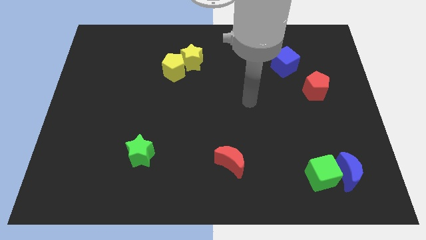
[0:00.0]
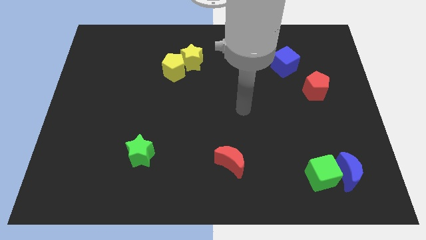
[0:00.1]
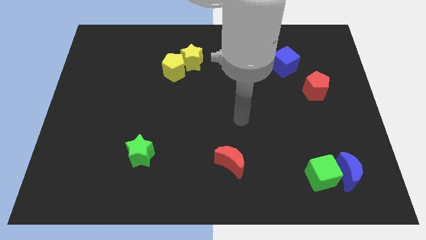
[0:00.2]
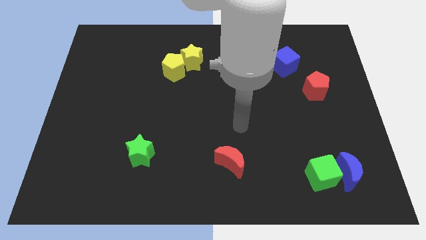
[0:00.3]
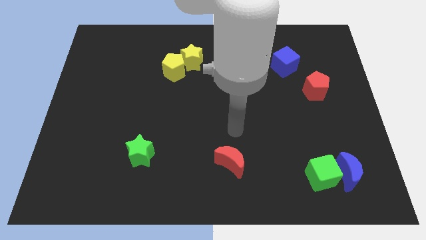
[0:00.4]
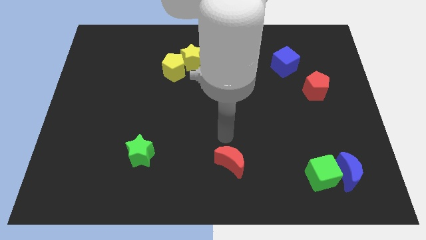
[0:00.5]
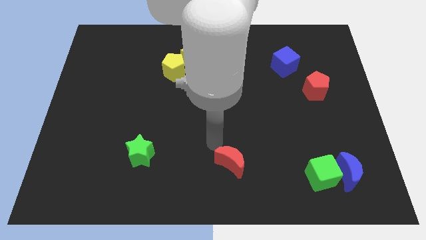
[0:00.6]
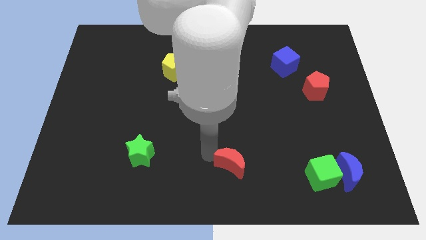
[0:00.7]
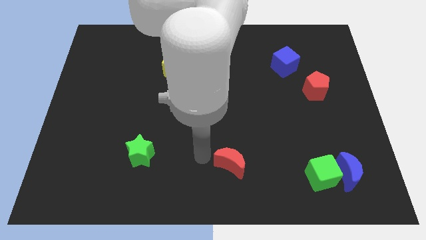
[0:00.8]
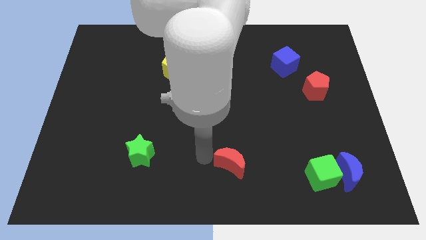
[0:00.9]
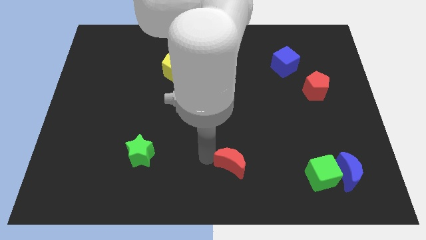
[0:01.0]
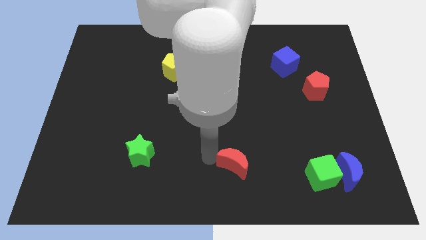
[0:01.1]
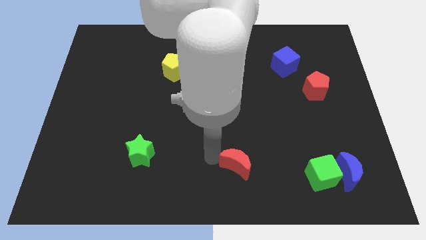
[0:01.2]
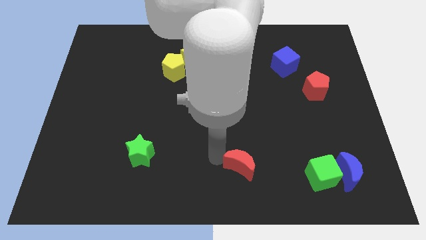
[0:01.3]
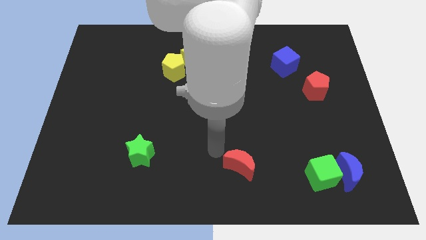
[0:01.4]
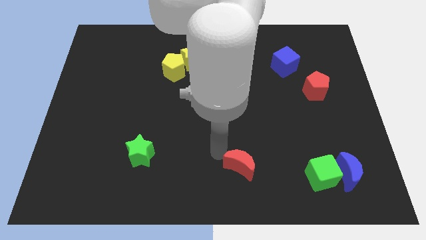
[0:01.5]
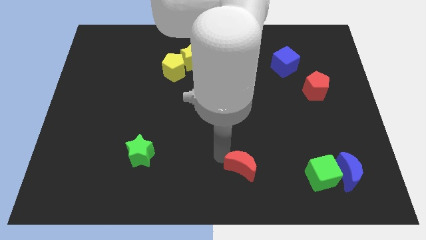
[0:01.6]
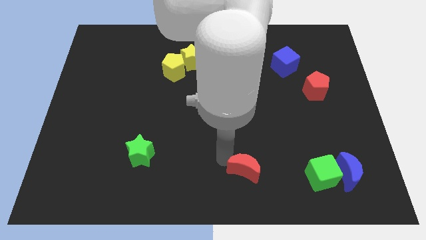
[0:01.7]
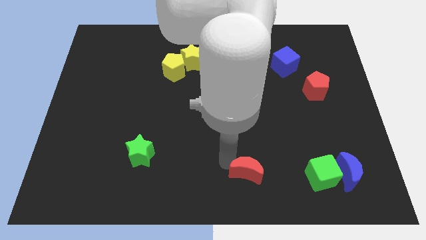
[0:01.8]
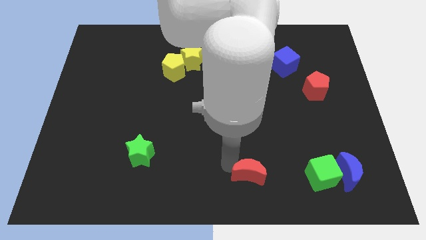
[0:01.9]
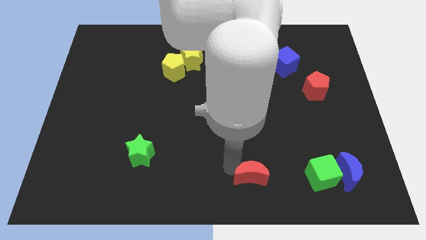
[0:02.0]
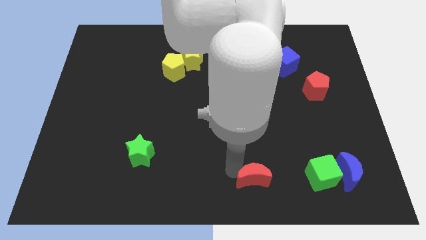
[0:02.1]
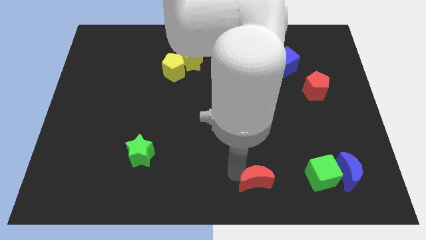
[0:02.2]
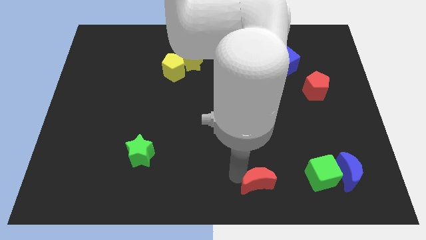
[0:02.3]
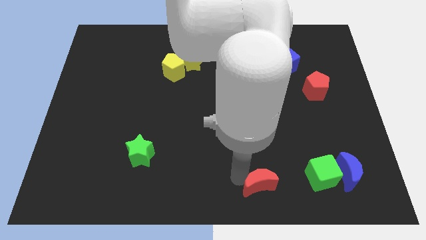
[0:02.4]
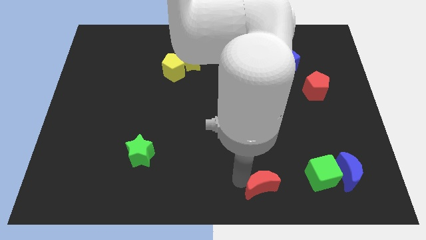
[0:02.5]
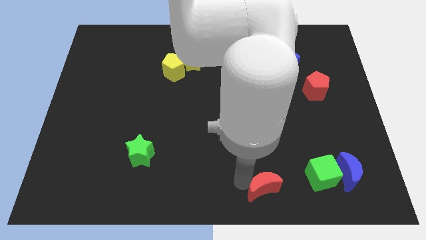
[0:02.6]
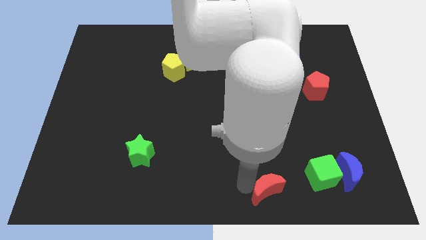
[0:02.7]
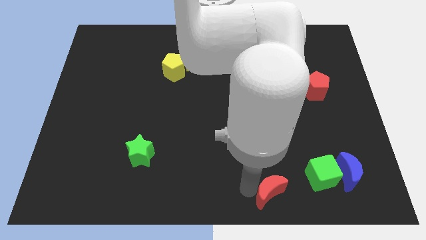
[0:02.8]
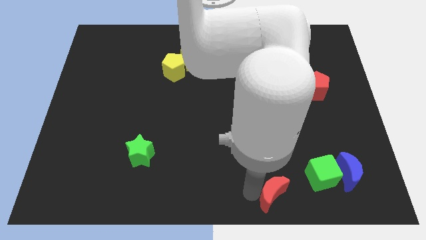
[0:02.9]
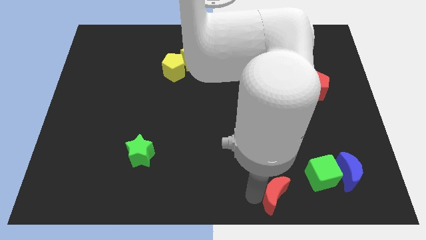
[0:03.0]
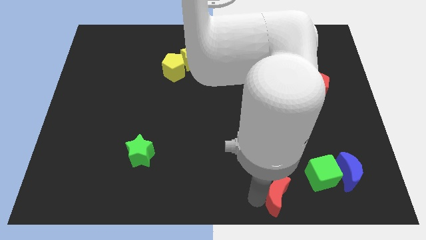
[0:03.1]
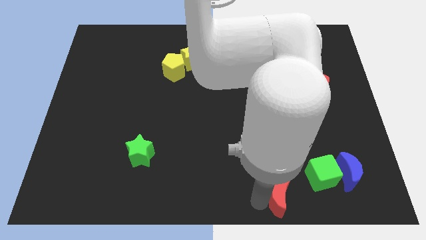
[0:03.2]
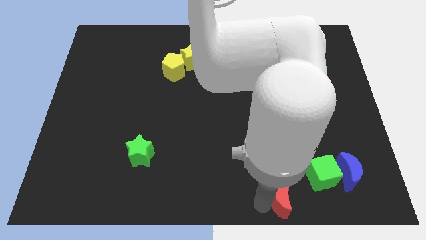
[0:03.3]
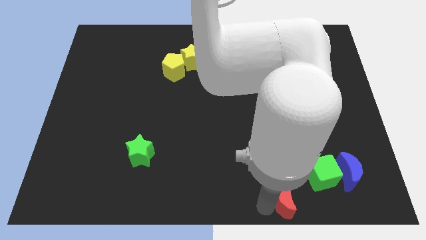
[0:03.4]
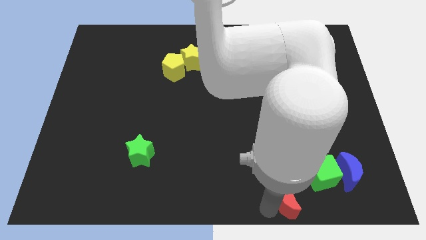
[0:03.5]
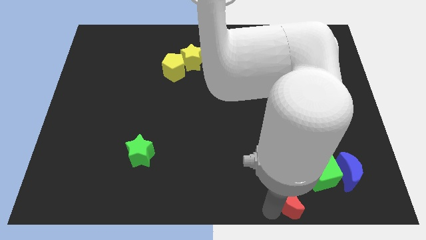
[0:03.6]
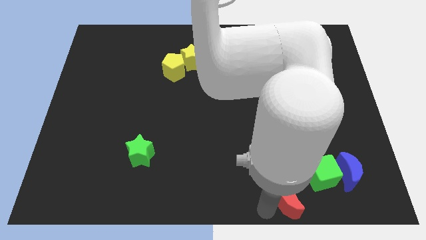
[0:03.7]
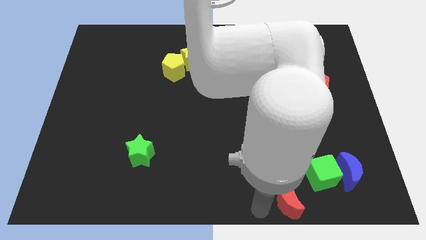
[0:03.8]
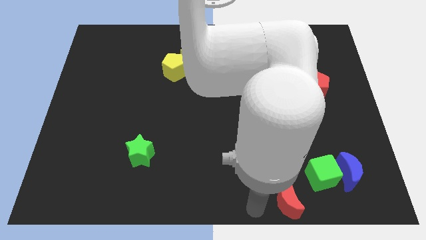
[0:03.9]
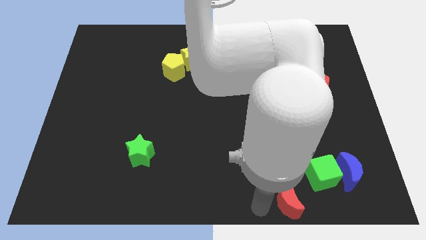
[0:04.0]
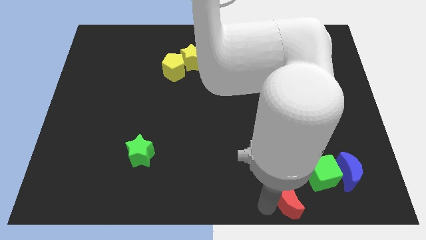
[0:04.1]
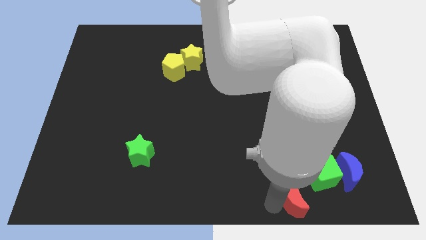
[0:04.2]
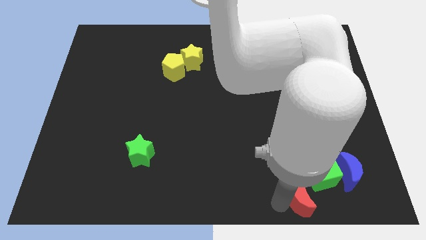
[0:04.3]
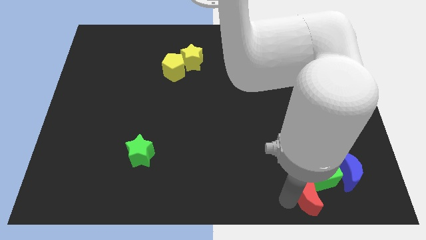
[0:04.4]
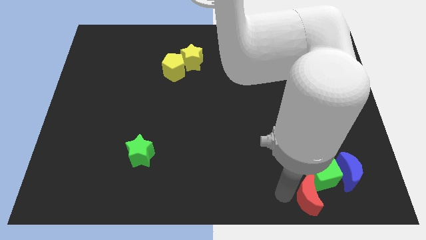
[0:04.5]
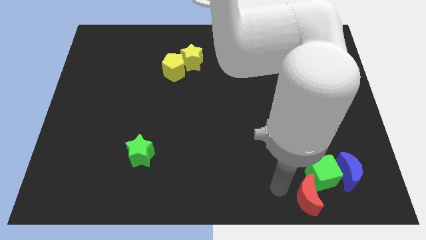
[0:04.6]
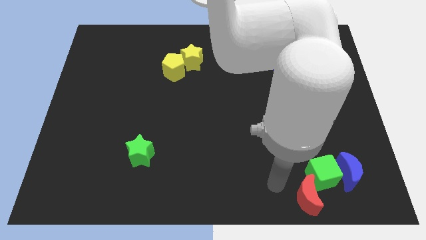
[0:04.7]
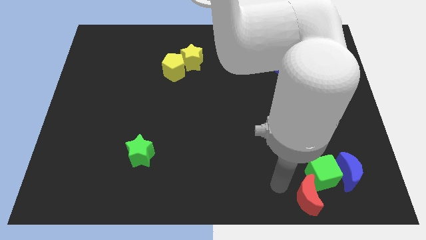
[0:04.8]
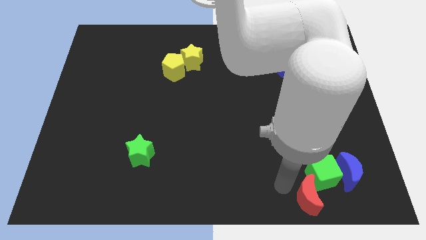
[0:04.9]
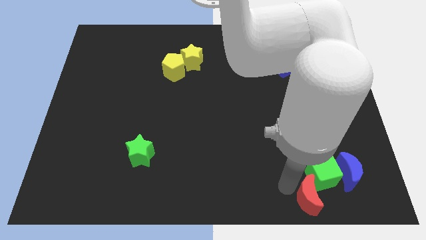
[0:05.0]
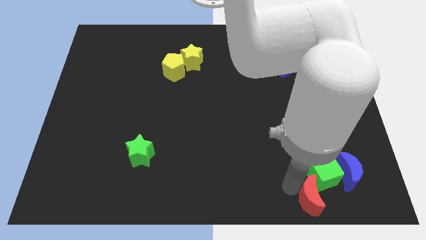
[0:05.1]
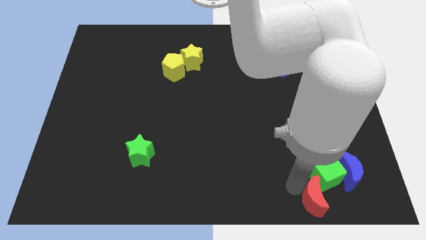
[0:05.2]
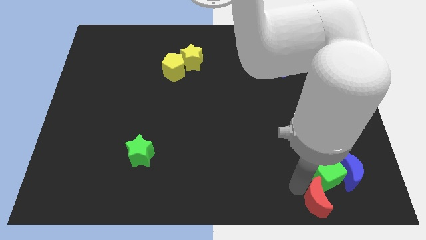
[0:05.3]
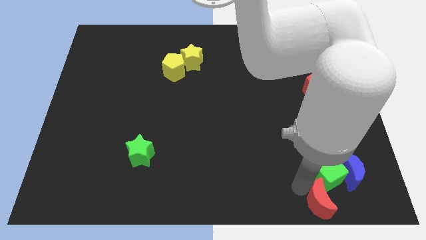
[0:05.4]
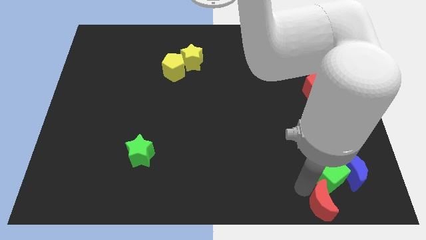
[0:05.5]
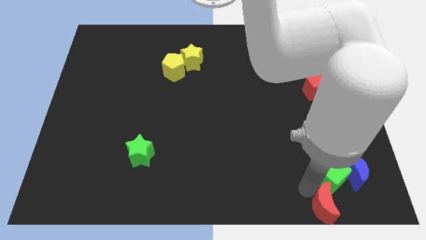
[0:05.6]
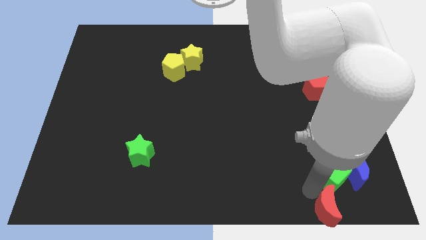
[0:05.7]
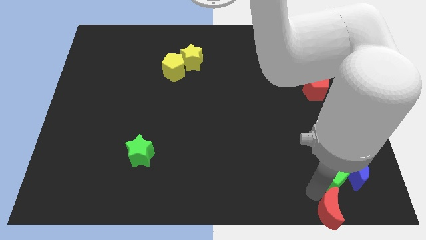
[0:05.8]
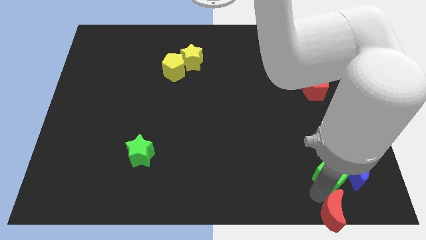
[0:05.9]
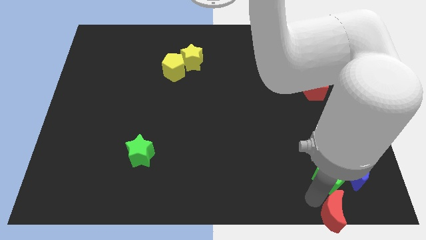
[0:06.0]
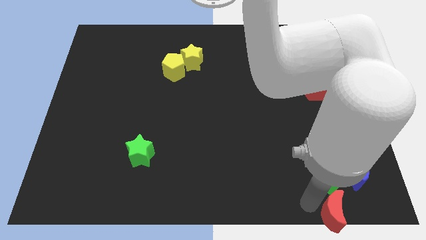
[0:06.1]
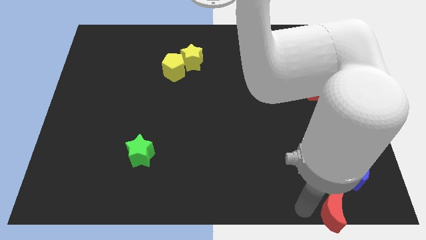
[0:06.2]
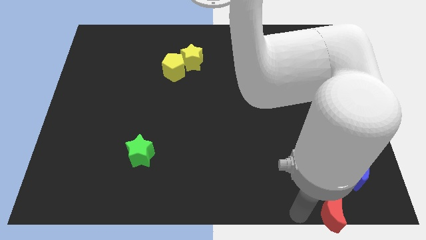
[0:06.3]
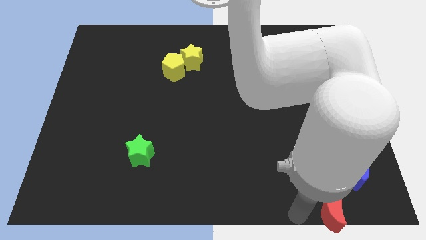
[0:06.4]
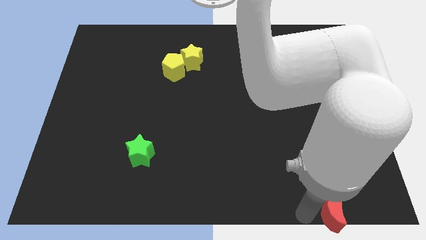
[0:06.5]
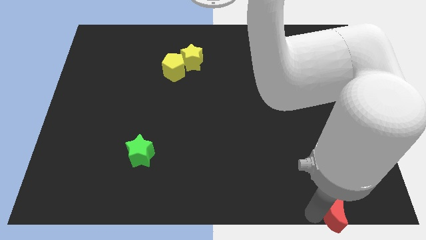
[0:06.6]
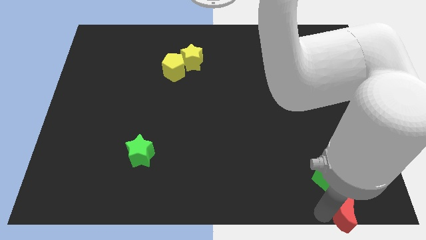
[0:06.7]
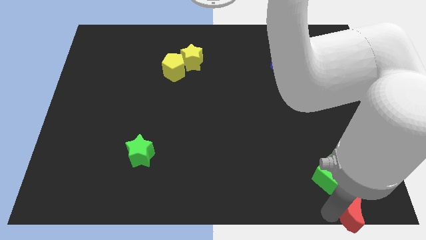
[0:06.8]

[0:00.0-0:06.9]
slide the red moon to the lower right corner

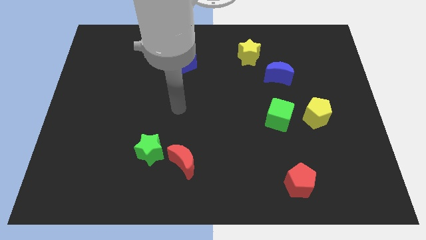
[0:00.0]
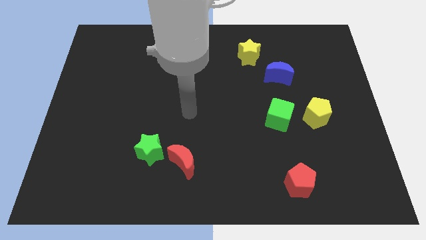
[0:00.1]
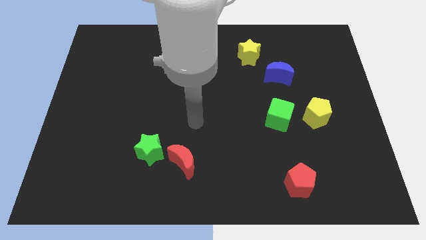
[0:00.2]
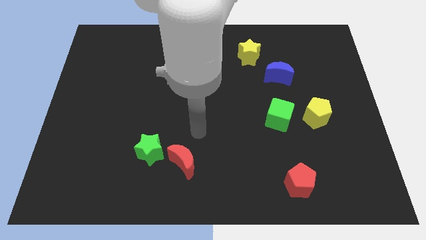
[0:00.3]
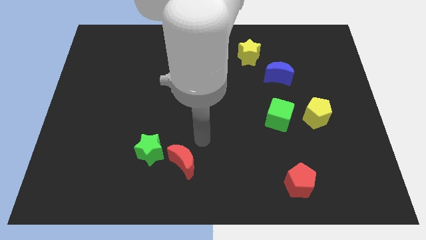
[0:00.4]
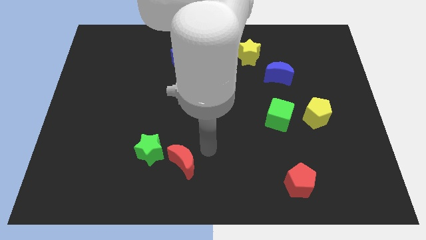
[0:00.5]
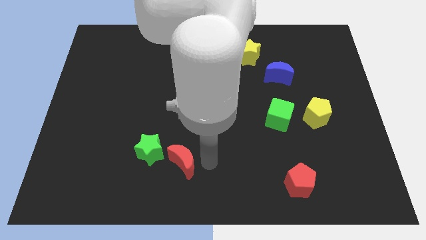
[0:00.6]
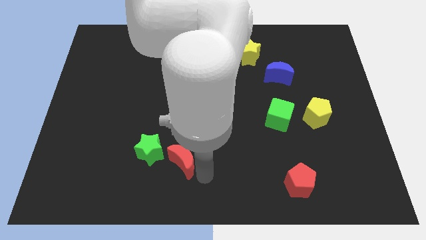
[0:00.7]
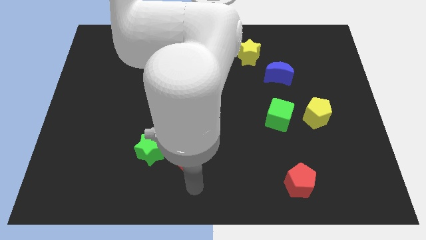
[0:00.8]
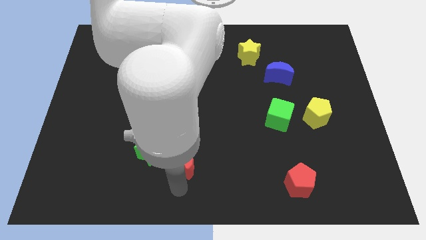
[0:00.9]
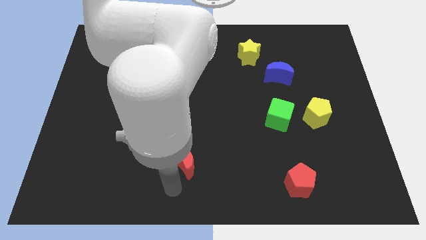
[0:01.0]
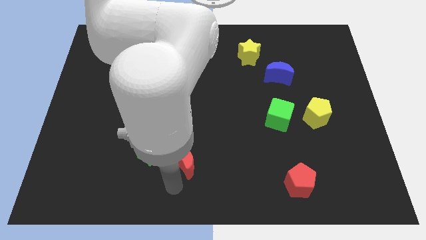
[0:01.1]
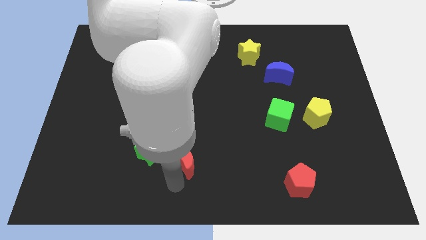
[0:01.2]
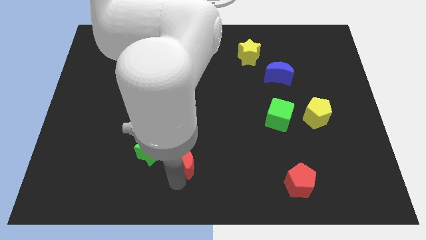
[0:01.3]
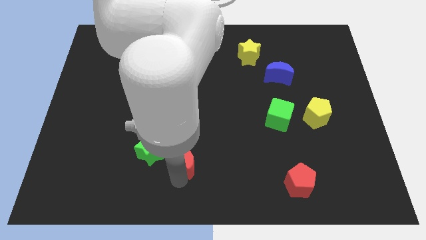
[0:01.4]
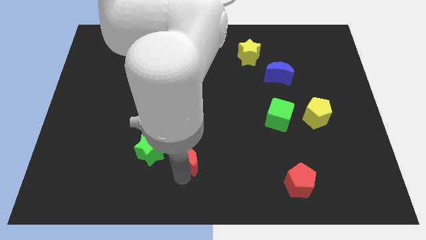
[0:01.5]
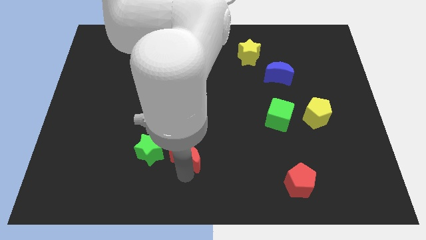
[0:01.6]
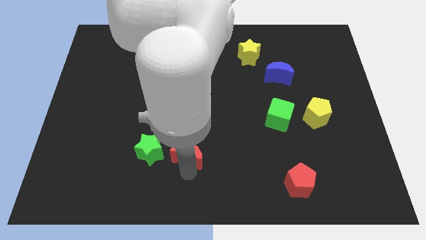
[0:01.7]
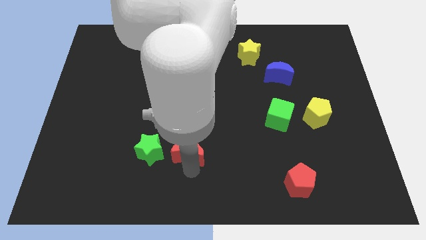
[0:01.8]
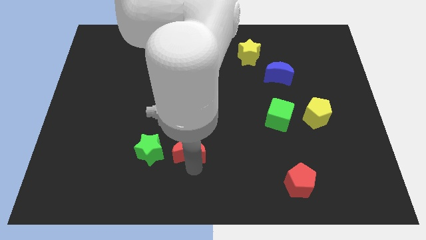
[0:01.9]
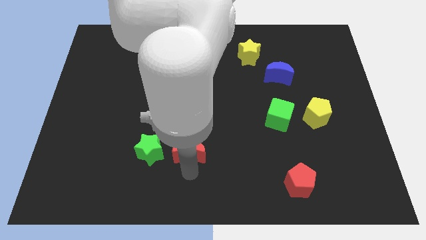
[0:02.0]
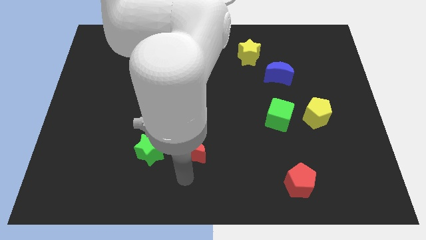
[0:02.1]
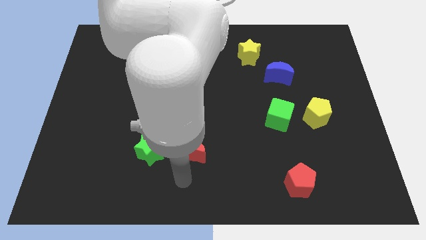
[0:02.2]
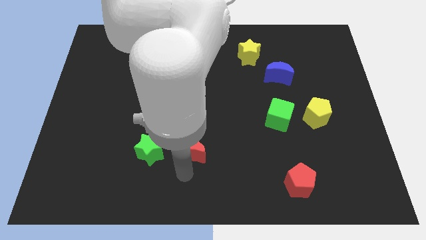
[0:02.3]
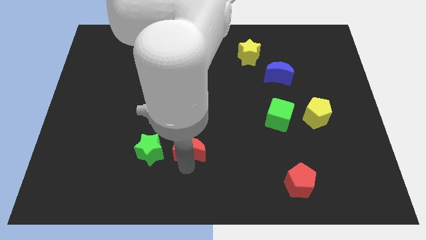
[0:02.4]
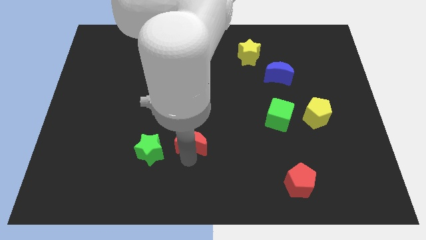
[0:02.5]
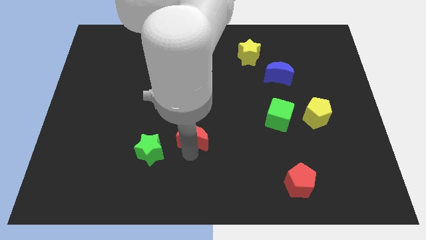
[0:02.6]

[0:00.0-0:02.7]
push the red moon to the middle
